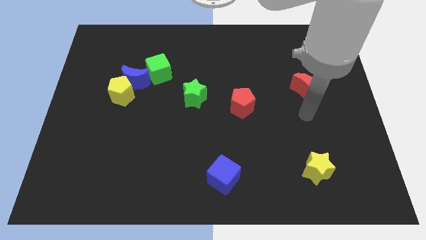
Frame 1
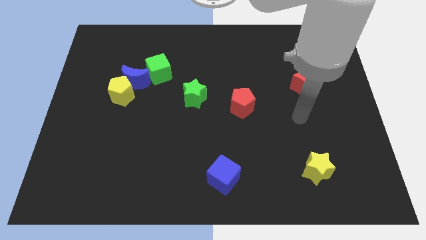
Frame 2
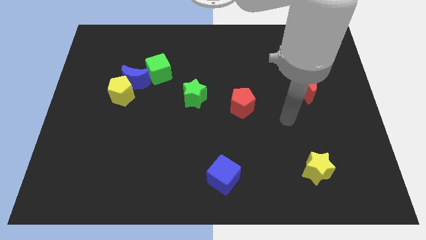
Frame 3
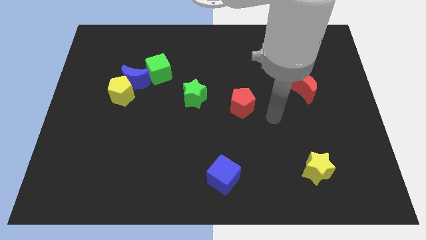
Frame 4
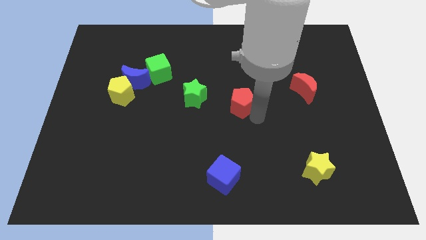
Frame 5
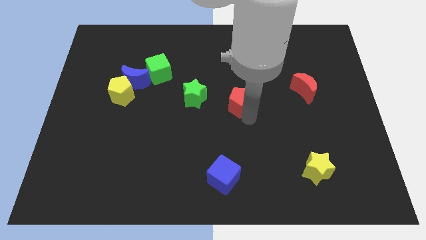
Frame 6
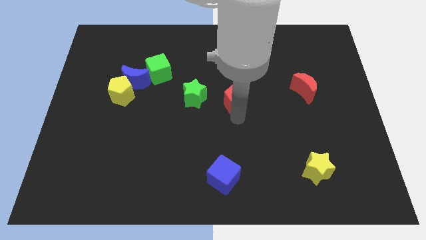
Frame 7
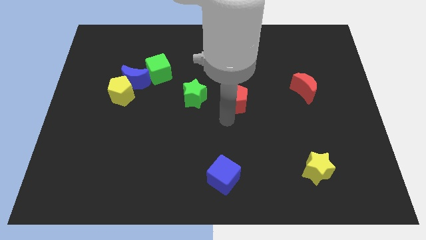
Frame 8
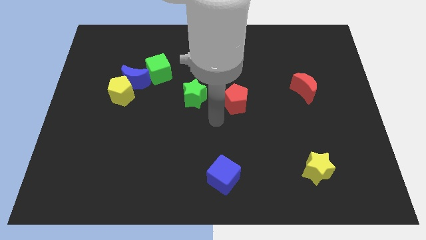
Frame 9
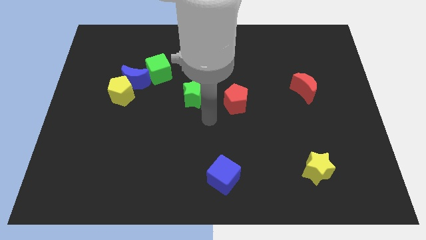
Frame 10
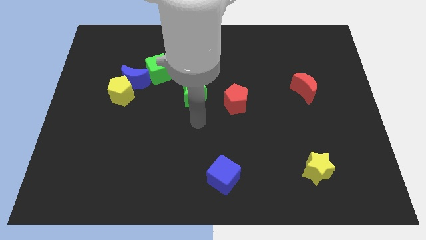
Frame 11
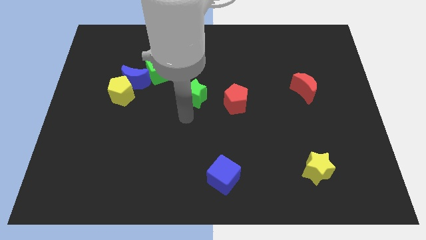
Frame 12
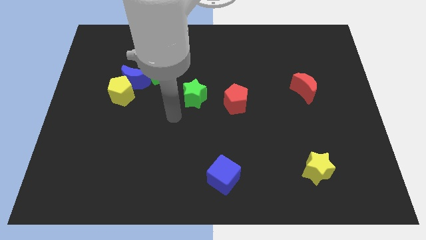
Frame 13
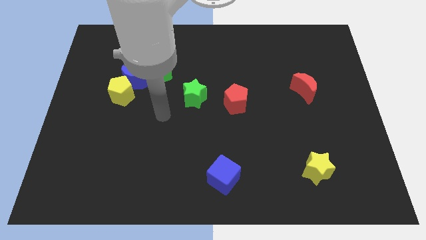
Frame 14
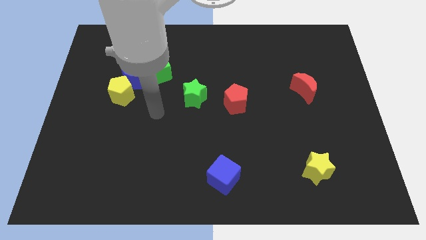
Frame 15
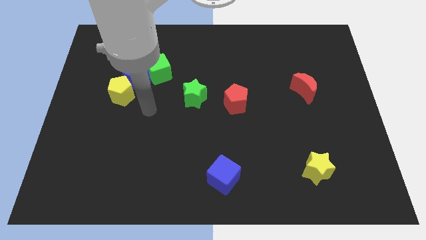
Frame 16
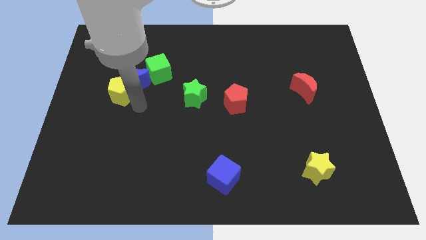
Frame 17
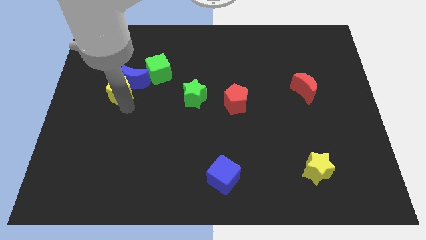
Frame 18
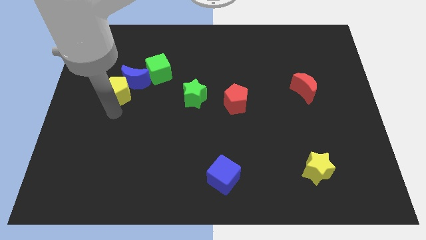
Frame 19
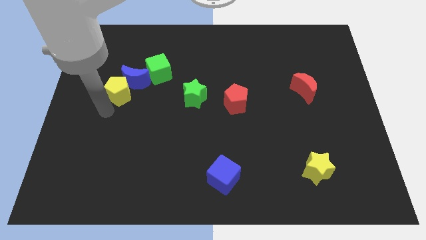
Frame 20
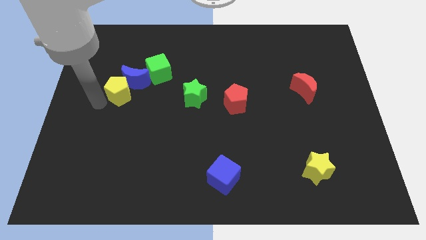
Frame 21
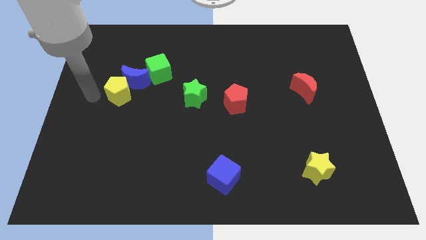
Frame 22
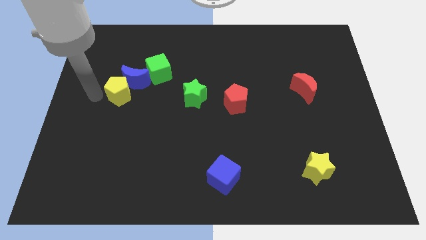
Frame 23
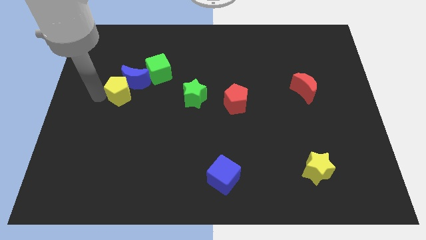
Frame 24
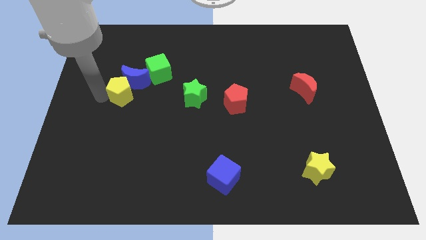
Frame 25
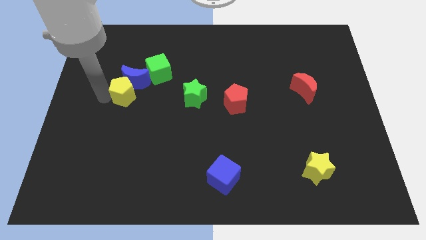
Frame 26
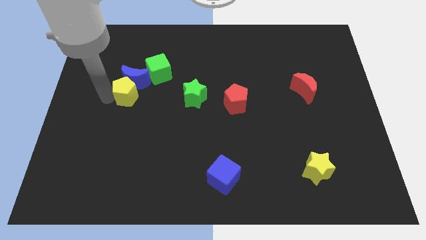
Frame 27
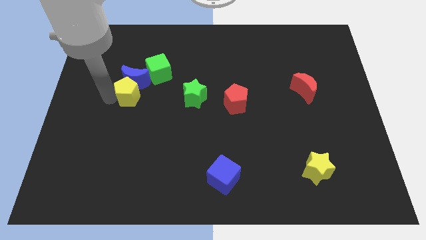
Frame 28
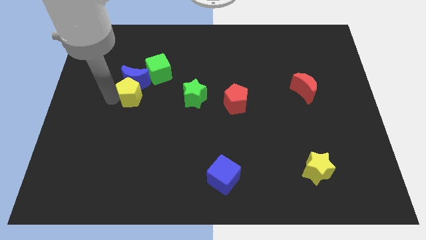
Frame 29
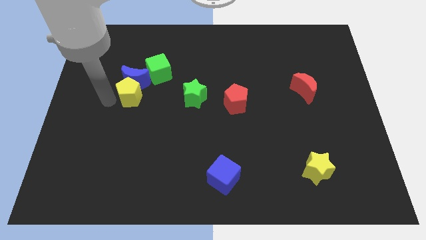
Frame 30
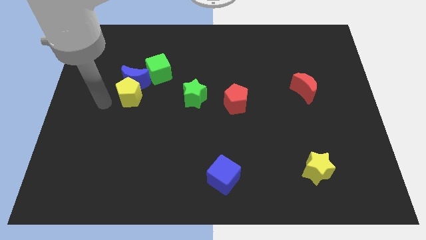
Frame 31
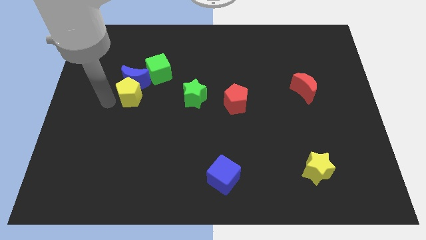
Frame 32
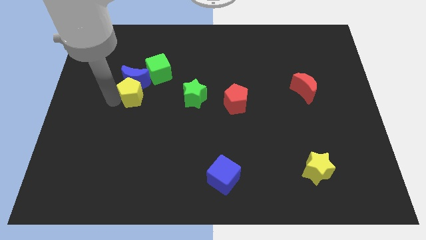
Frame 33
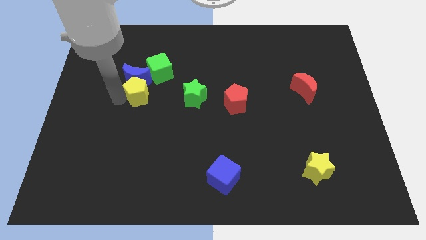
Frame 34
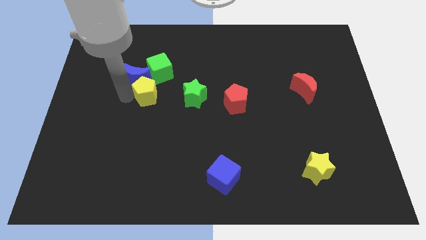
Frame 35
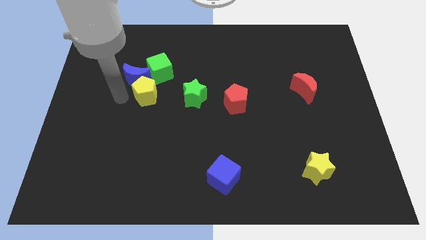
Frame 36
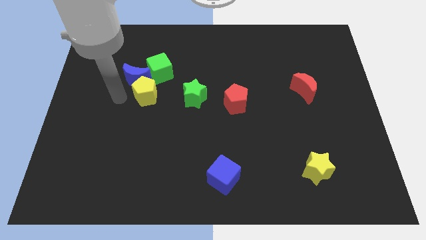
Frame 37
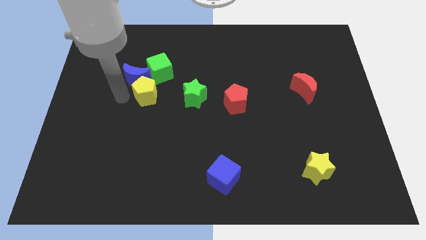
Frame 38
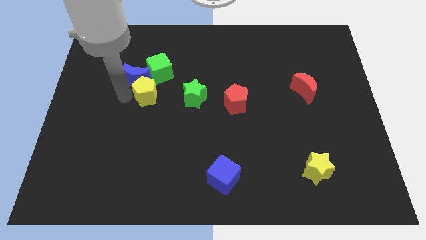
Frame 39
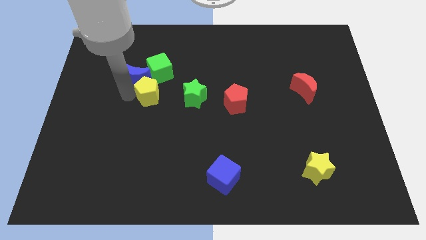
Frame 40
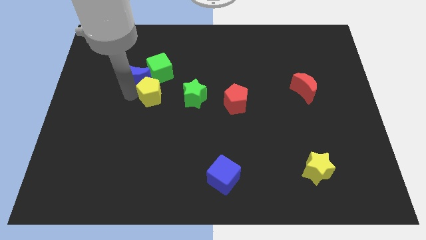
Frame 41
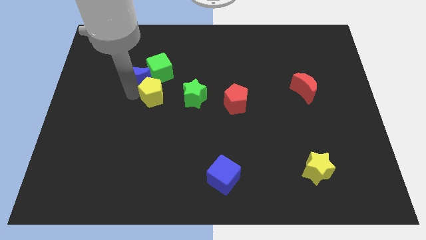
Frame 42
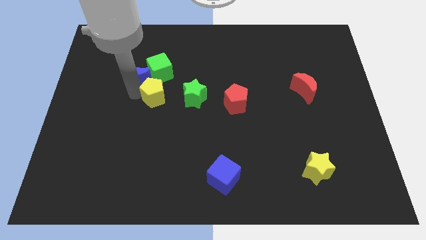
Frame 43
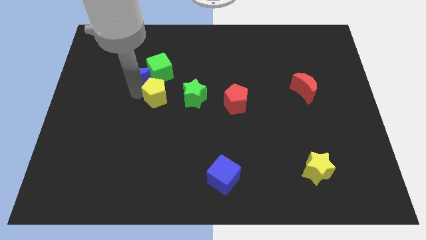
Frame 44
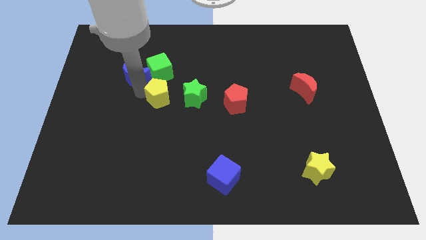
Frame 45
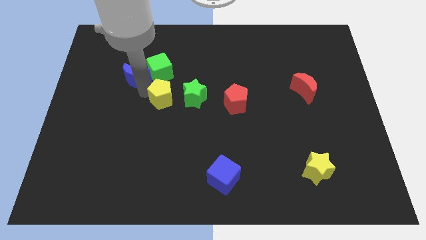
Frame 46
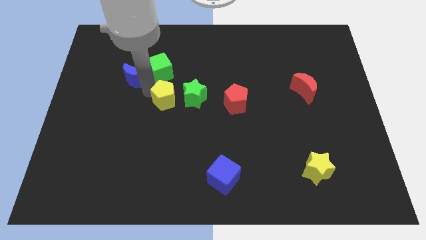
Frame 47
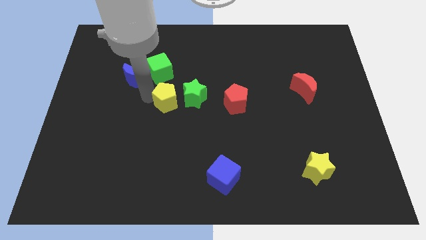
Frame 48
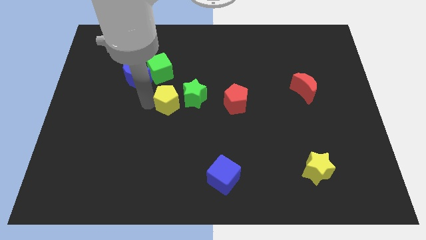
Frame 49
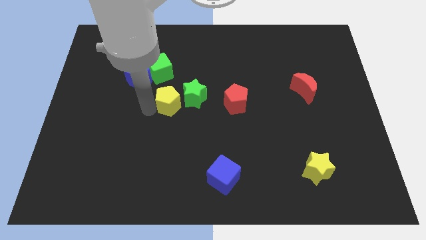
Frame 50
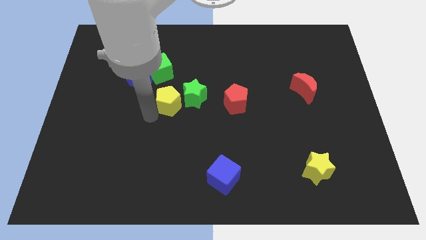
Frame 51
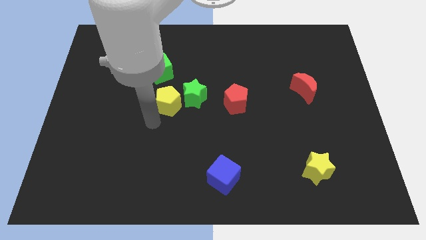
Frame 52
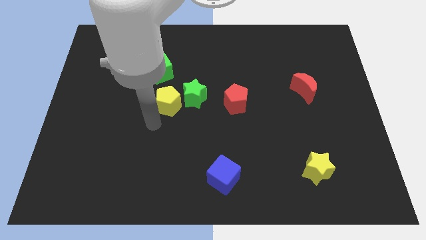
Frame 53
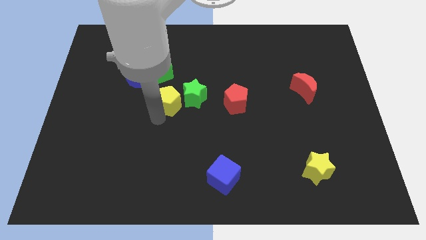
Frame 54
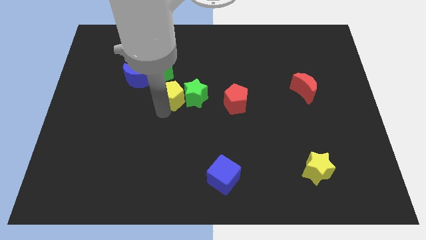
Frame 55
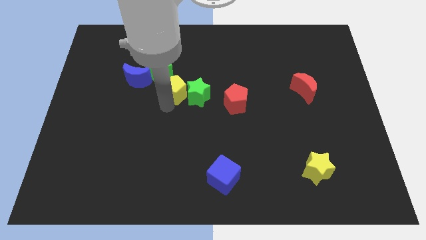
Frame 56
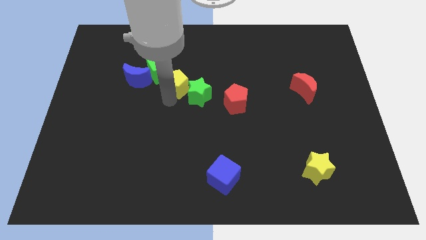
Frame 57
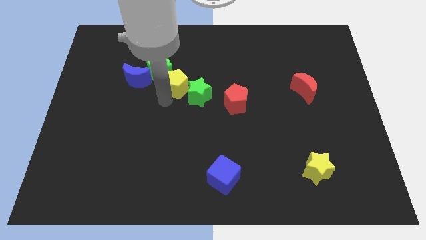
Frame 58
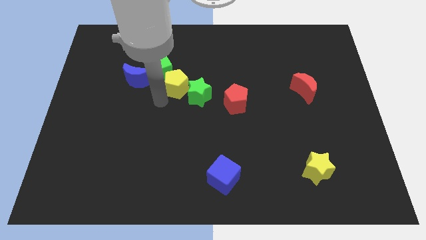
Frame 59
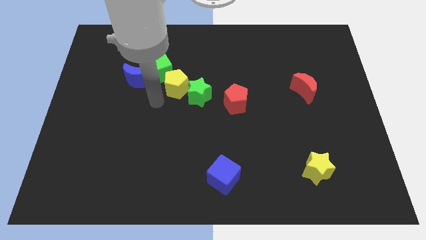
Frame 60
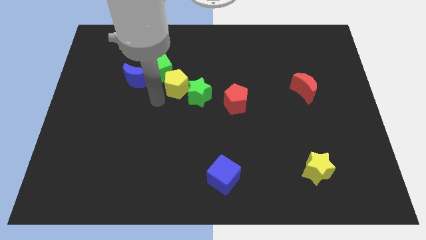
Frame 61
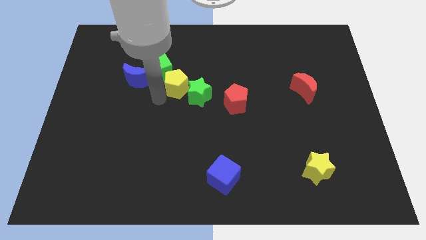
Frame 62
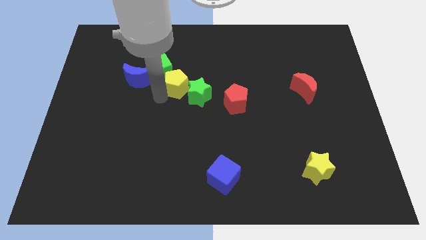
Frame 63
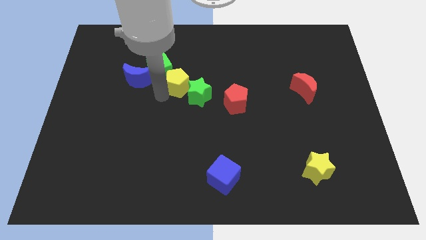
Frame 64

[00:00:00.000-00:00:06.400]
put the yellow pentagon to the right of the green cube

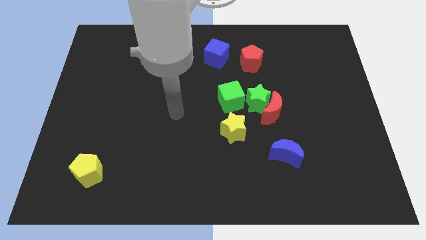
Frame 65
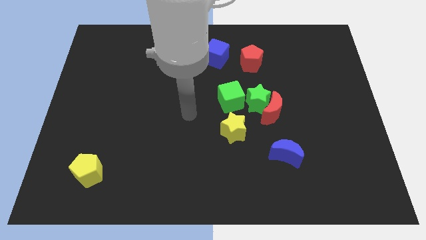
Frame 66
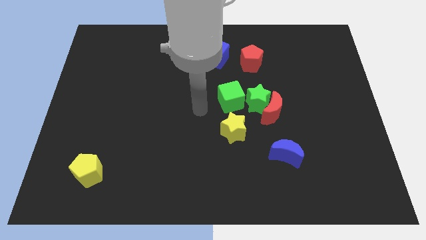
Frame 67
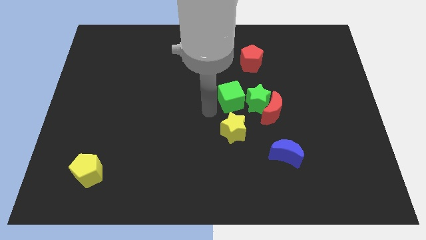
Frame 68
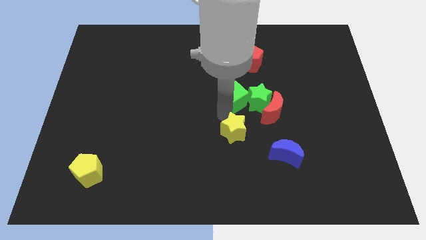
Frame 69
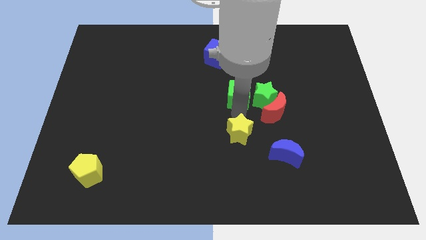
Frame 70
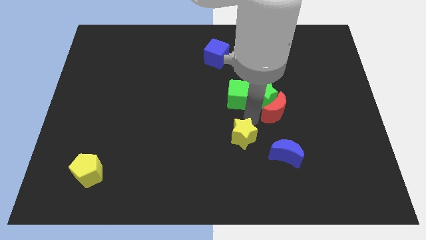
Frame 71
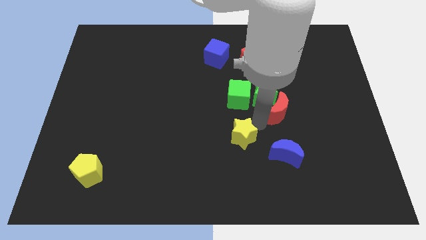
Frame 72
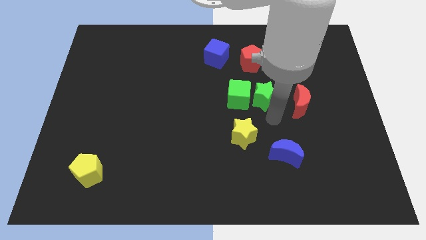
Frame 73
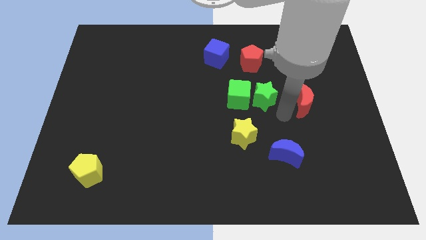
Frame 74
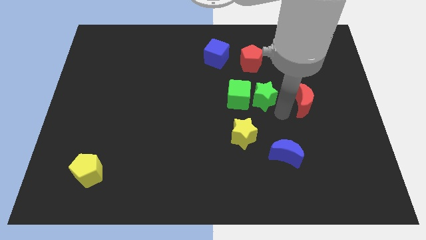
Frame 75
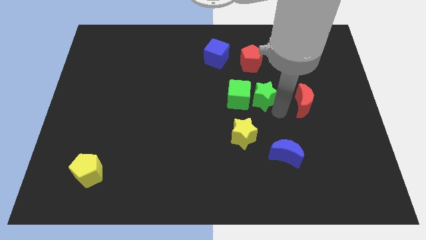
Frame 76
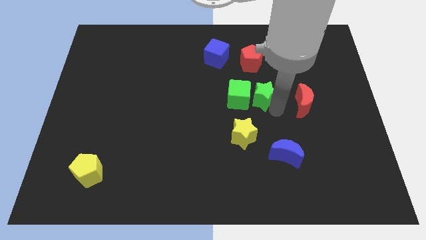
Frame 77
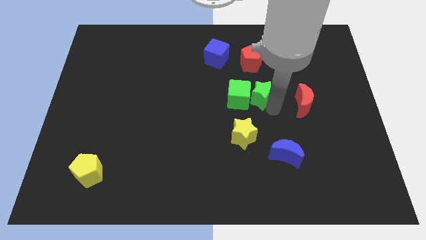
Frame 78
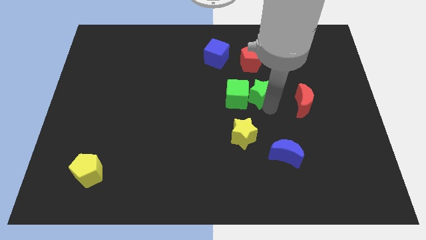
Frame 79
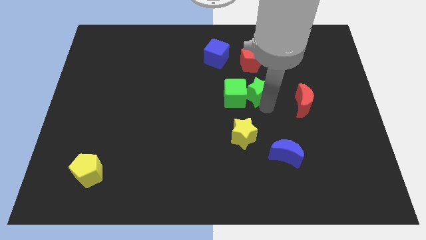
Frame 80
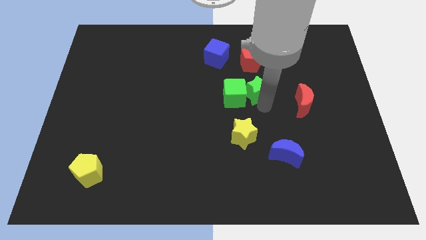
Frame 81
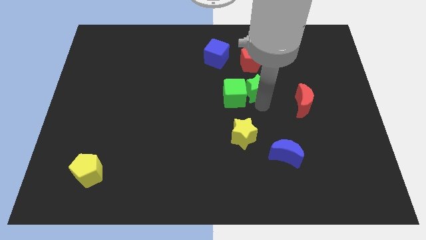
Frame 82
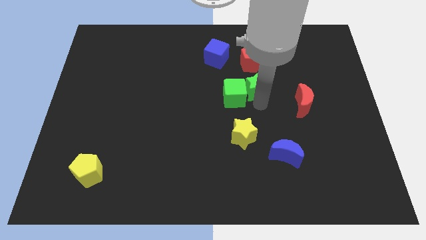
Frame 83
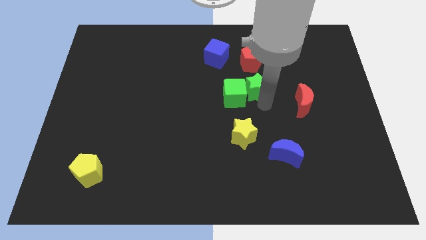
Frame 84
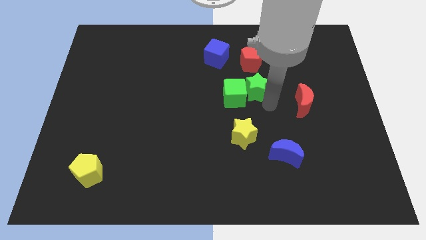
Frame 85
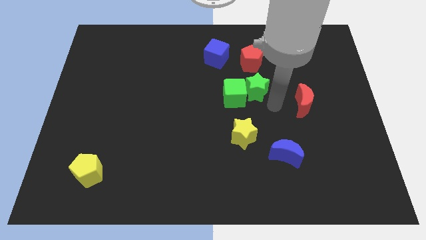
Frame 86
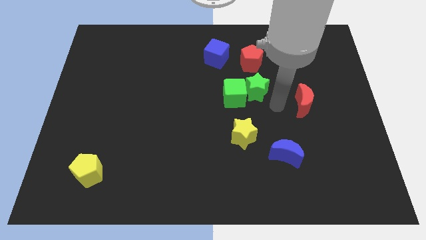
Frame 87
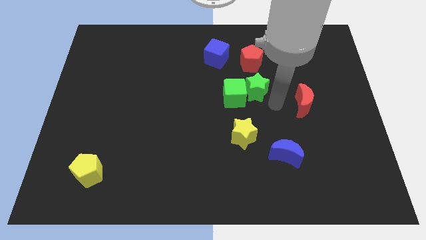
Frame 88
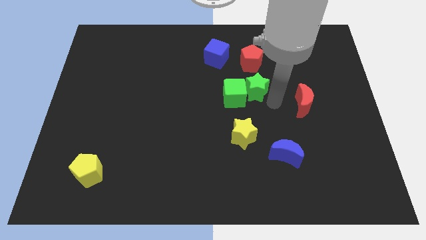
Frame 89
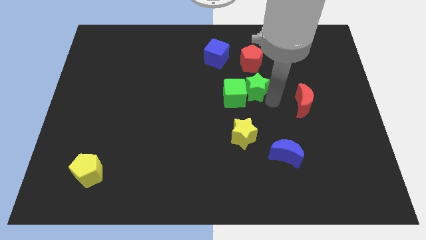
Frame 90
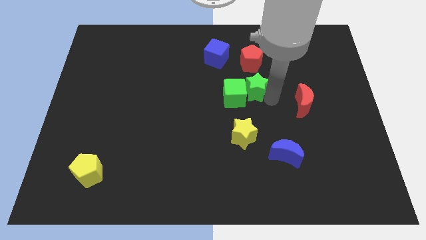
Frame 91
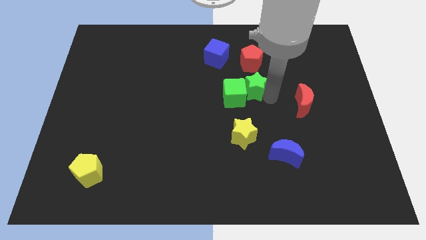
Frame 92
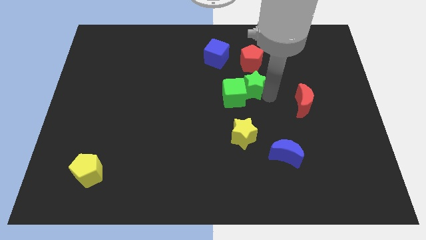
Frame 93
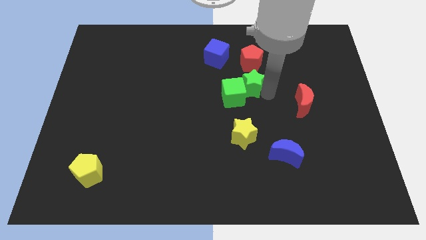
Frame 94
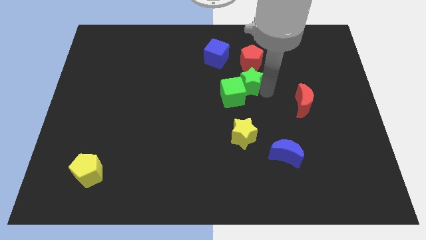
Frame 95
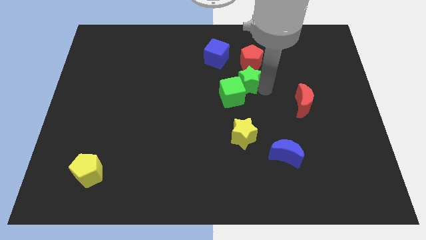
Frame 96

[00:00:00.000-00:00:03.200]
move the green star to the bottom right side of the blue cube
